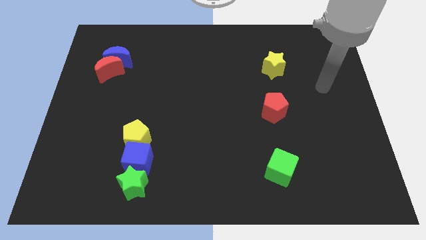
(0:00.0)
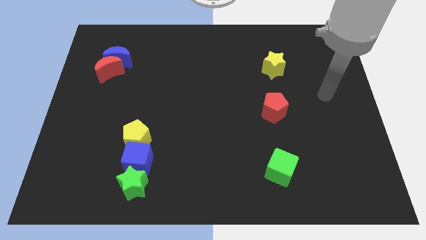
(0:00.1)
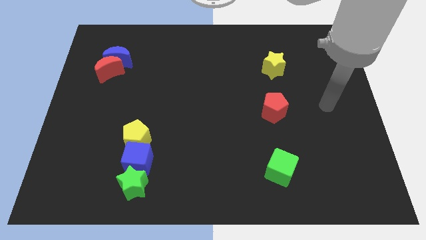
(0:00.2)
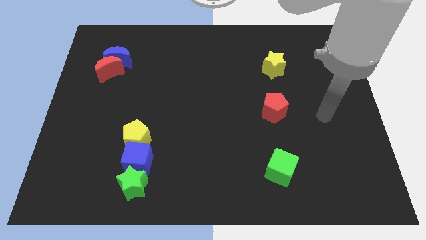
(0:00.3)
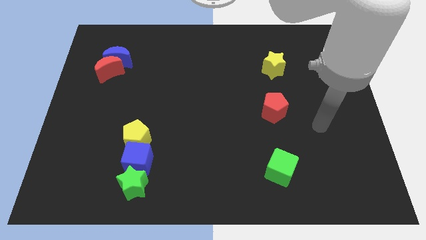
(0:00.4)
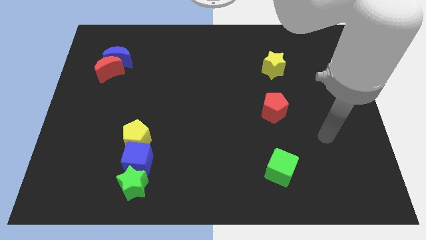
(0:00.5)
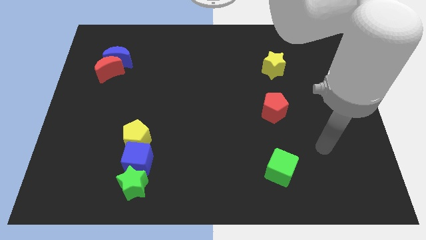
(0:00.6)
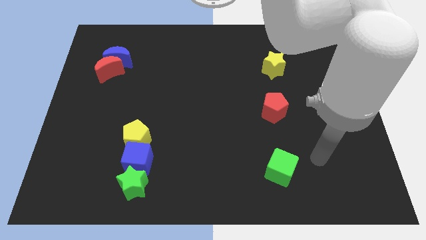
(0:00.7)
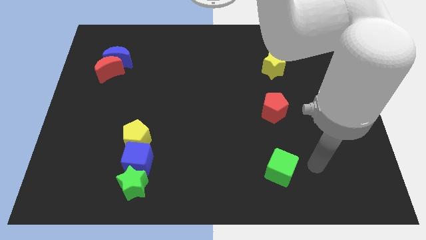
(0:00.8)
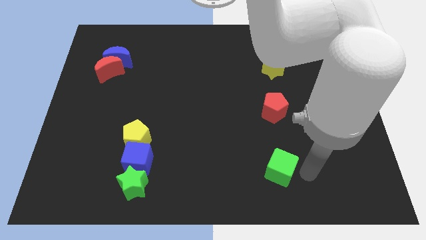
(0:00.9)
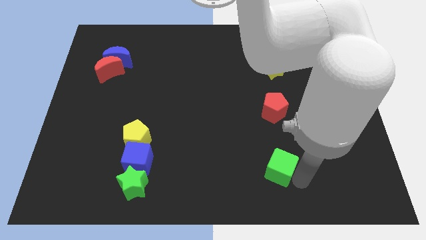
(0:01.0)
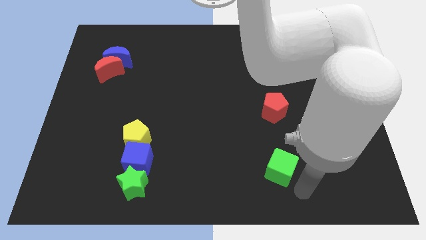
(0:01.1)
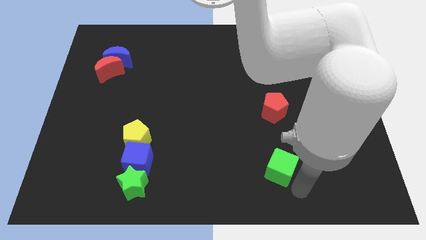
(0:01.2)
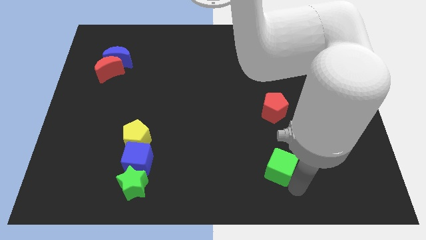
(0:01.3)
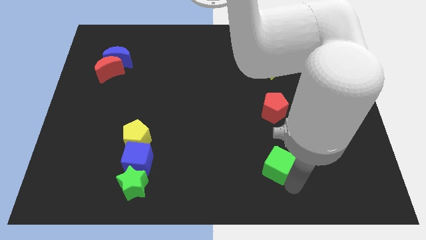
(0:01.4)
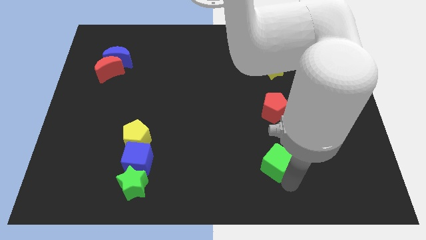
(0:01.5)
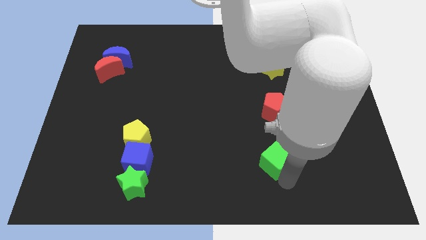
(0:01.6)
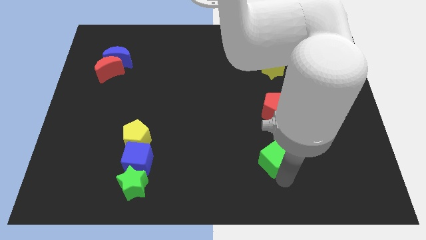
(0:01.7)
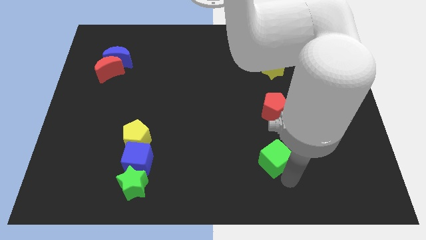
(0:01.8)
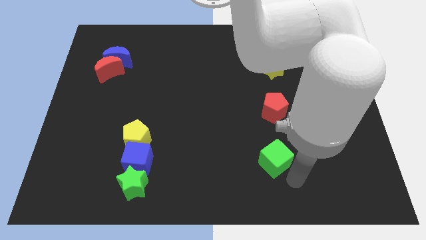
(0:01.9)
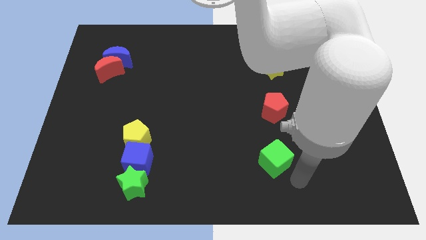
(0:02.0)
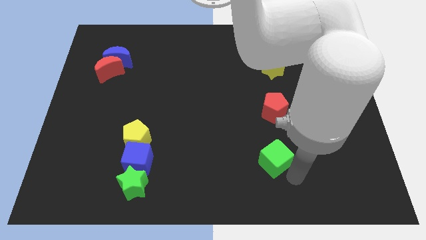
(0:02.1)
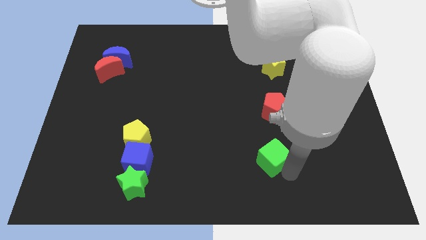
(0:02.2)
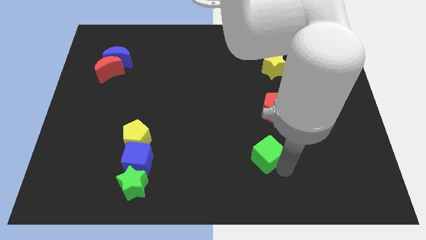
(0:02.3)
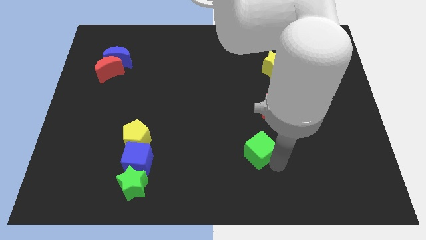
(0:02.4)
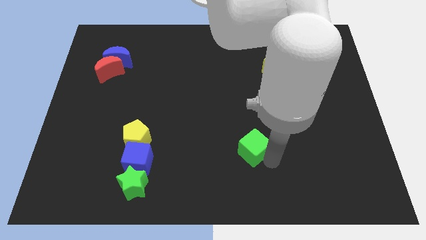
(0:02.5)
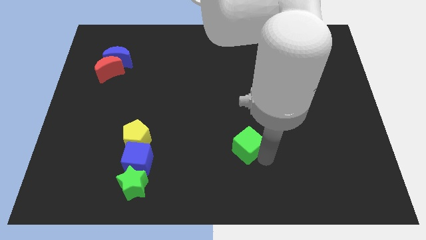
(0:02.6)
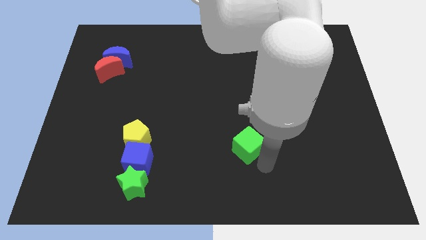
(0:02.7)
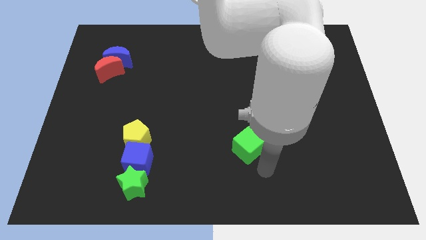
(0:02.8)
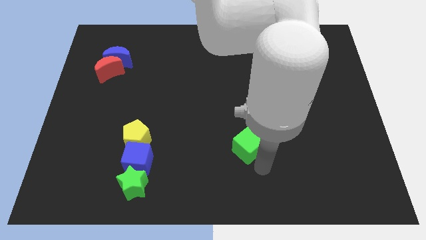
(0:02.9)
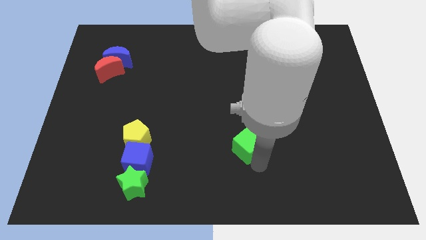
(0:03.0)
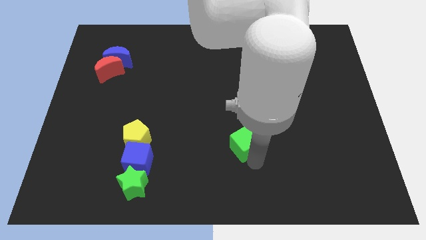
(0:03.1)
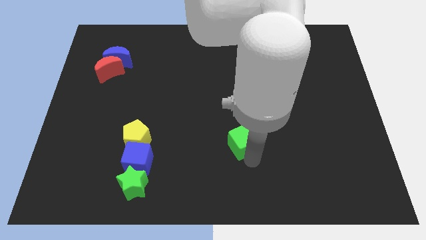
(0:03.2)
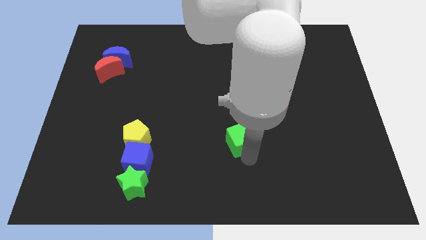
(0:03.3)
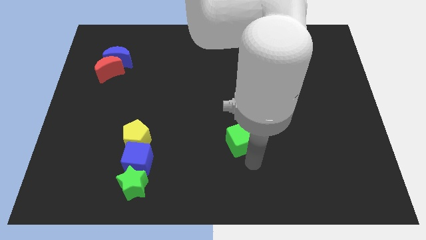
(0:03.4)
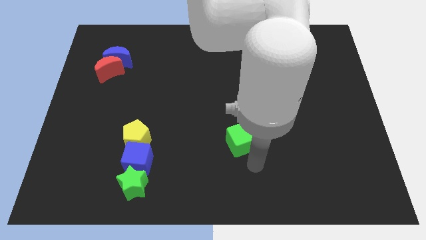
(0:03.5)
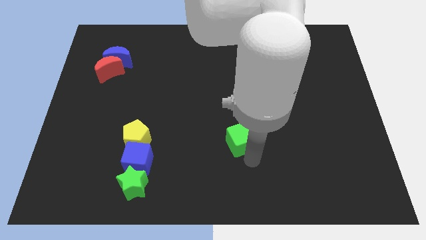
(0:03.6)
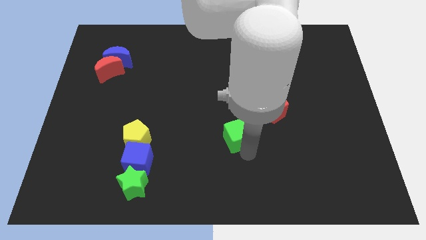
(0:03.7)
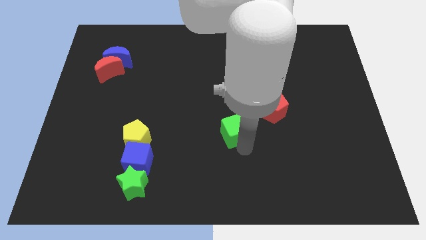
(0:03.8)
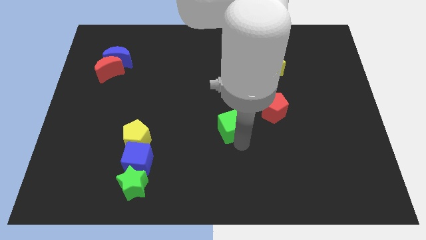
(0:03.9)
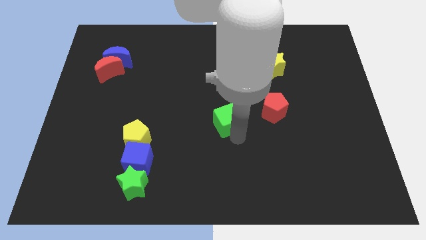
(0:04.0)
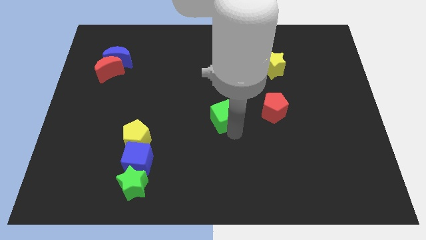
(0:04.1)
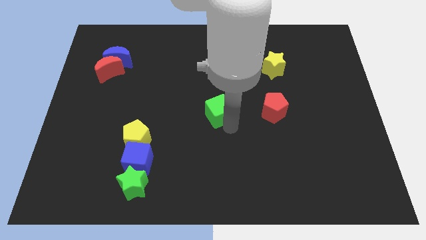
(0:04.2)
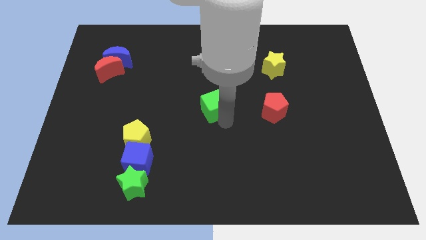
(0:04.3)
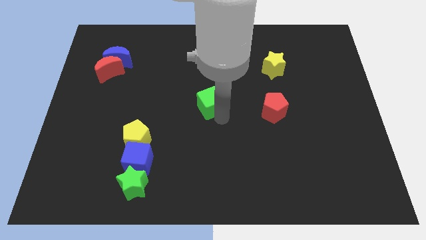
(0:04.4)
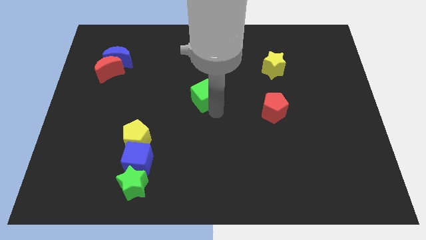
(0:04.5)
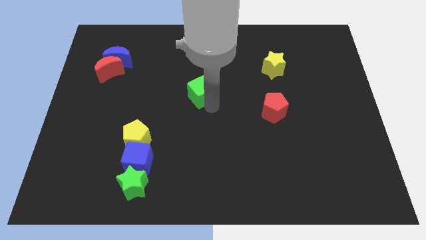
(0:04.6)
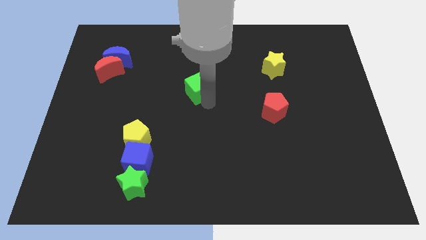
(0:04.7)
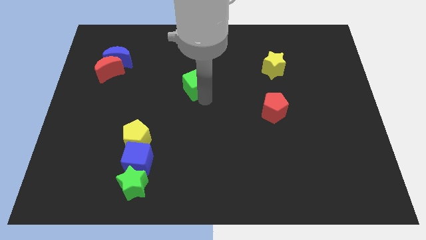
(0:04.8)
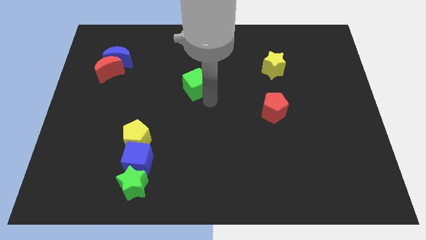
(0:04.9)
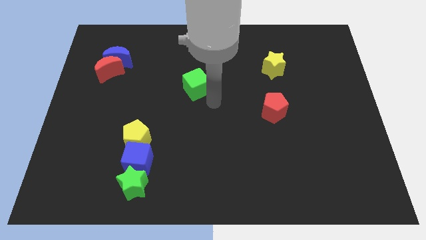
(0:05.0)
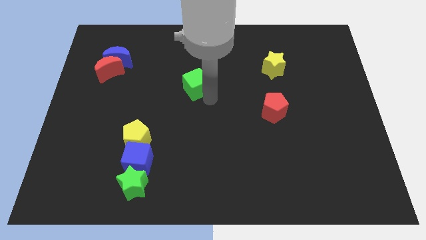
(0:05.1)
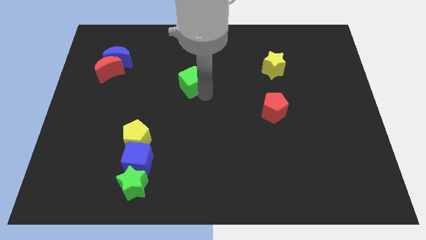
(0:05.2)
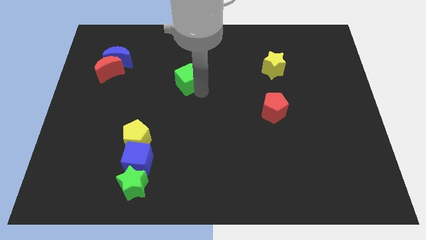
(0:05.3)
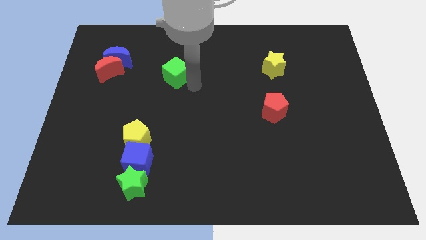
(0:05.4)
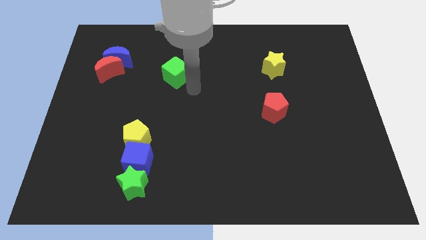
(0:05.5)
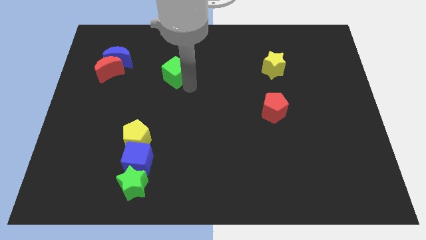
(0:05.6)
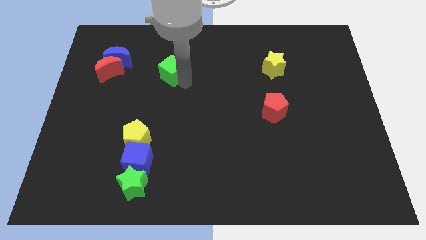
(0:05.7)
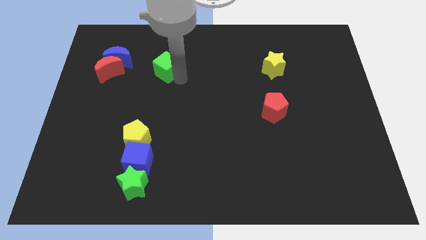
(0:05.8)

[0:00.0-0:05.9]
put the green cube right of the blue moon

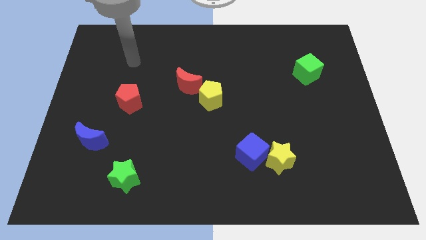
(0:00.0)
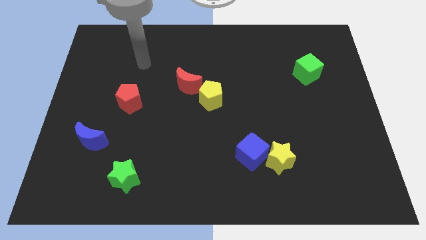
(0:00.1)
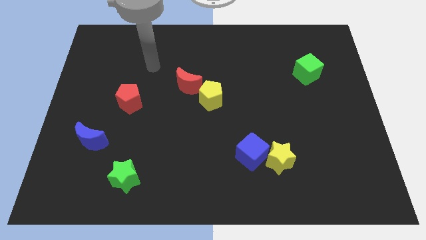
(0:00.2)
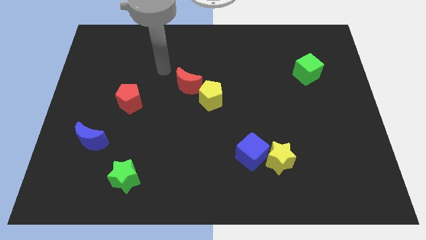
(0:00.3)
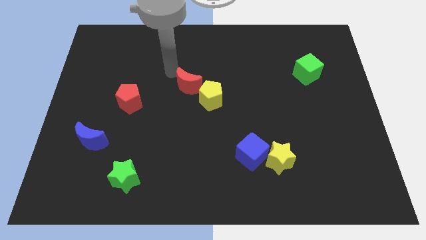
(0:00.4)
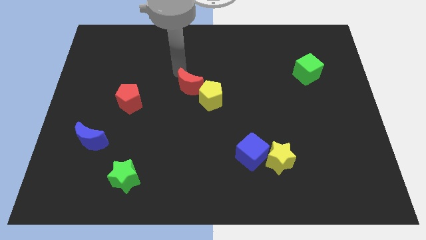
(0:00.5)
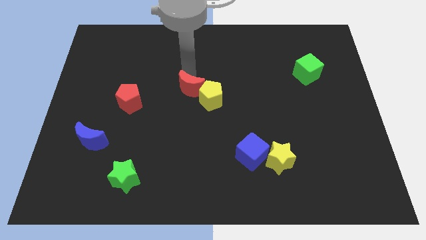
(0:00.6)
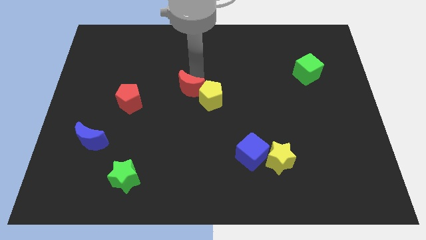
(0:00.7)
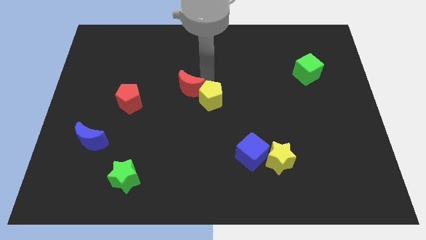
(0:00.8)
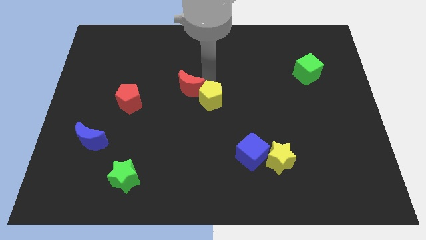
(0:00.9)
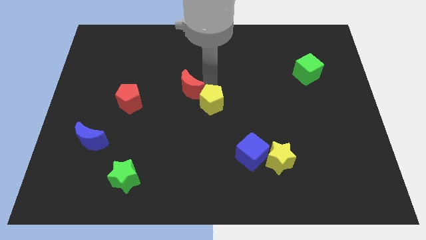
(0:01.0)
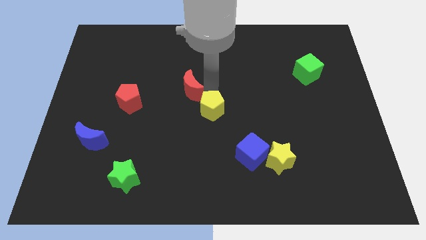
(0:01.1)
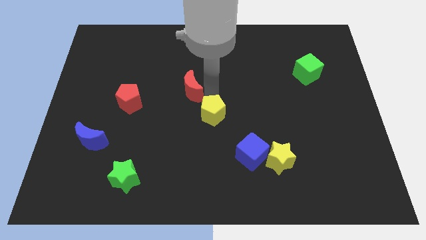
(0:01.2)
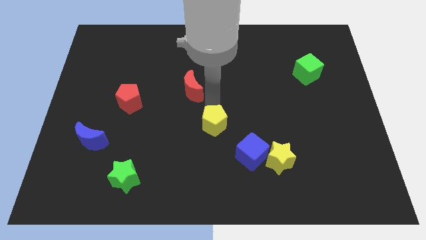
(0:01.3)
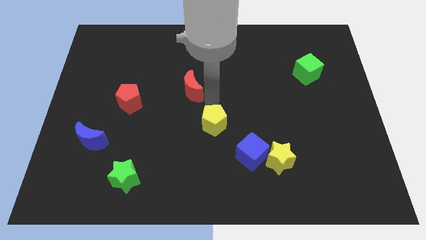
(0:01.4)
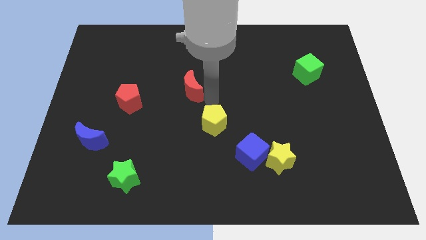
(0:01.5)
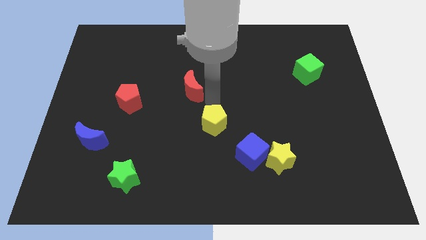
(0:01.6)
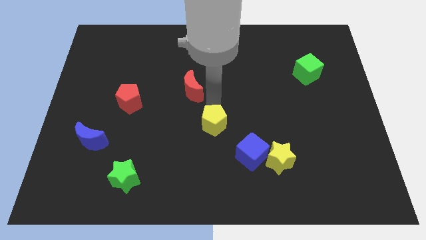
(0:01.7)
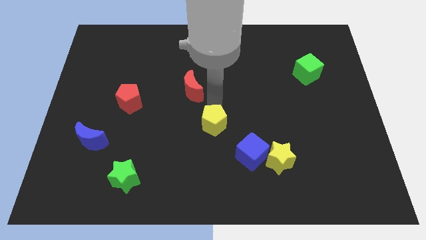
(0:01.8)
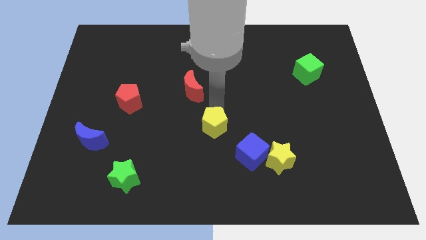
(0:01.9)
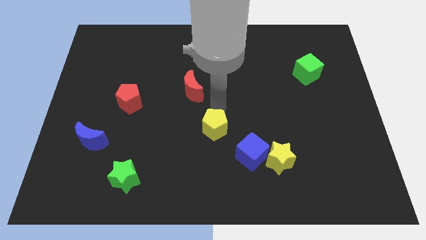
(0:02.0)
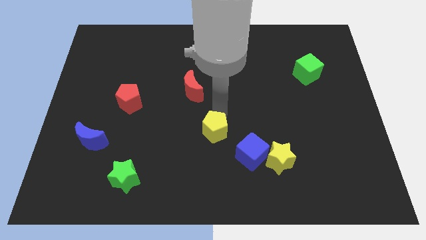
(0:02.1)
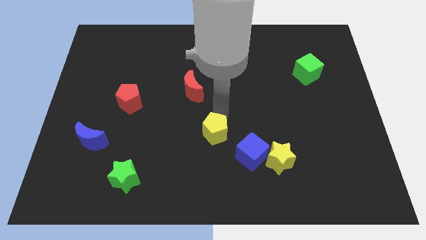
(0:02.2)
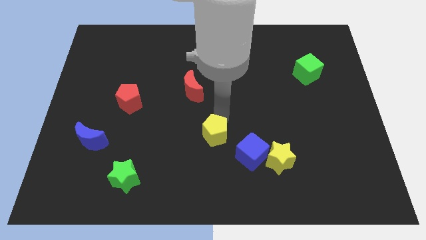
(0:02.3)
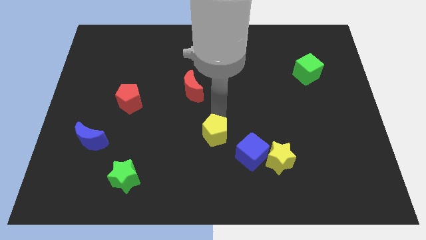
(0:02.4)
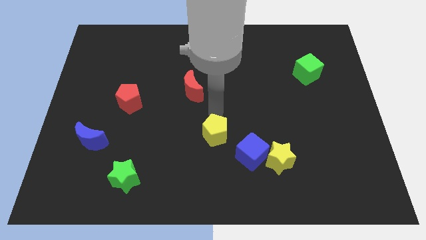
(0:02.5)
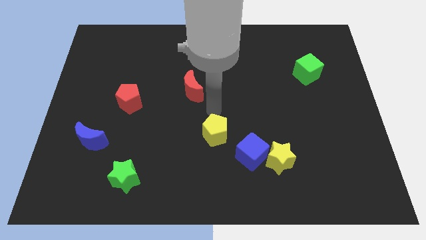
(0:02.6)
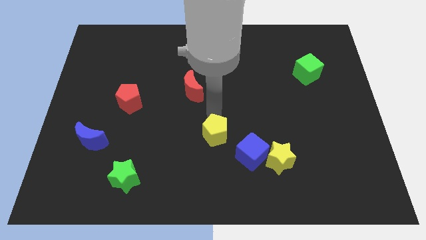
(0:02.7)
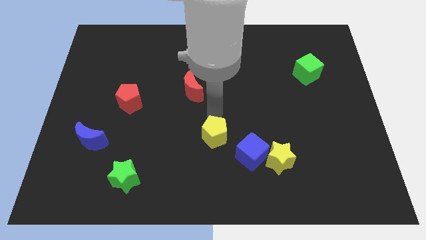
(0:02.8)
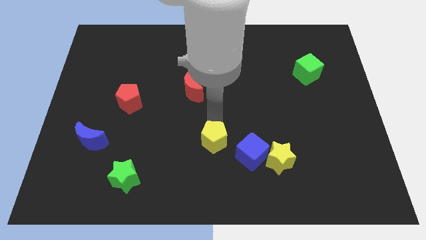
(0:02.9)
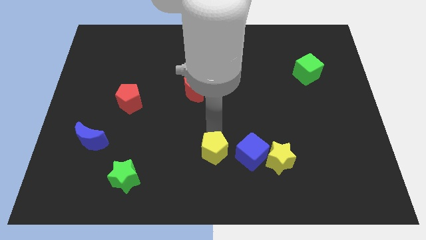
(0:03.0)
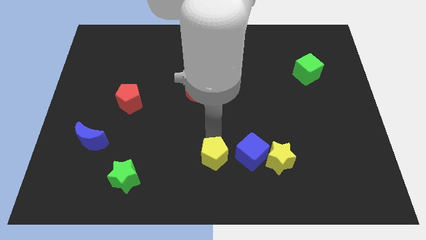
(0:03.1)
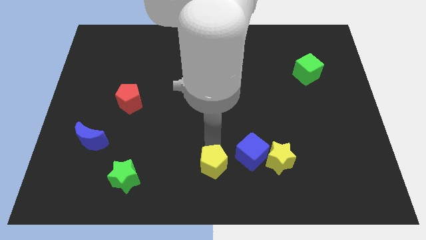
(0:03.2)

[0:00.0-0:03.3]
push the yellow pentagon to the bottom left of the blue cube
